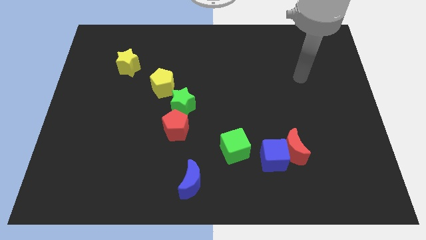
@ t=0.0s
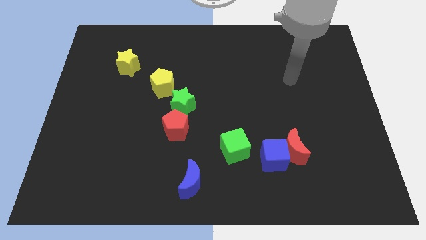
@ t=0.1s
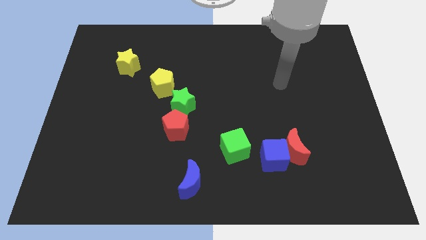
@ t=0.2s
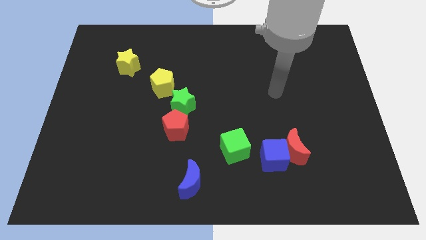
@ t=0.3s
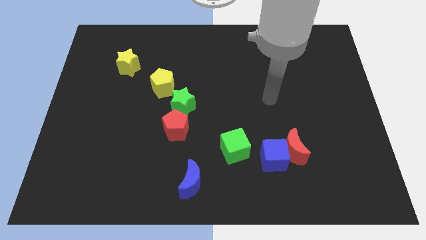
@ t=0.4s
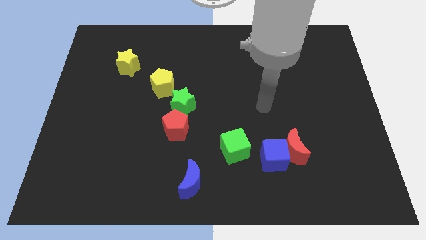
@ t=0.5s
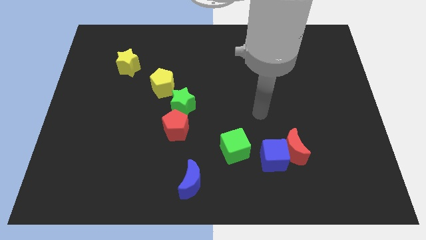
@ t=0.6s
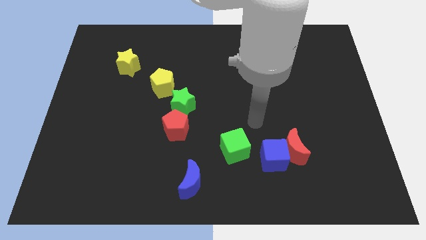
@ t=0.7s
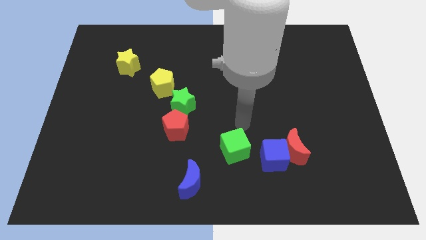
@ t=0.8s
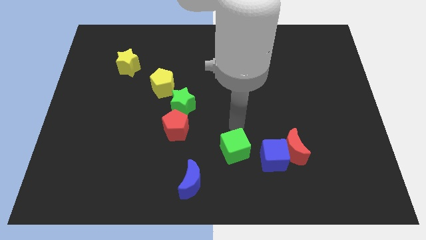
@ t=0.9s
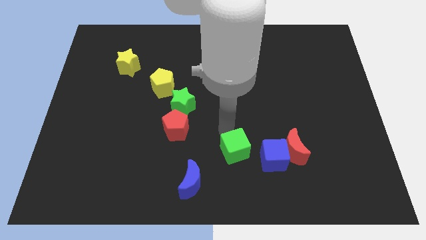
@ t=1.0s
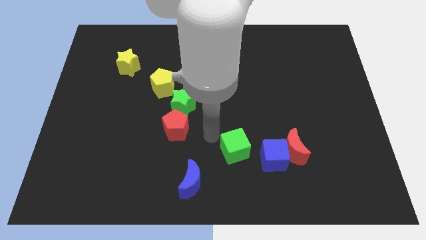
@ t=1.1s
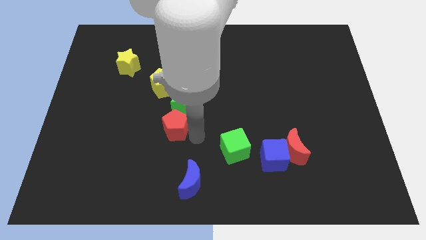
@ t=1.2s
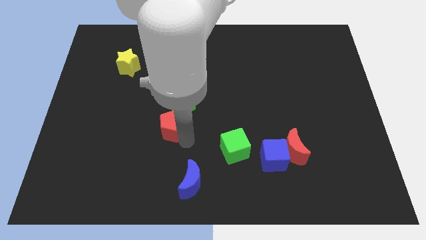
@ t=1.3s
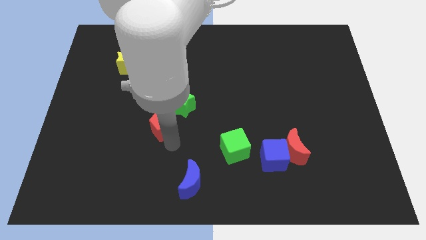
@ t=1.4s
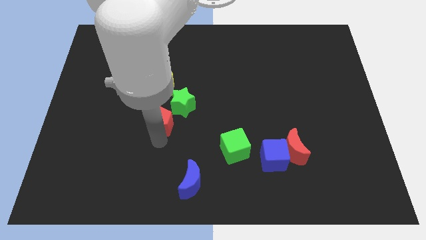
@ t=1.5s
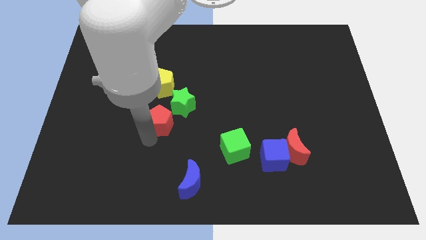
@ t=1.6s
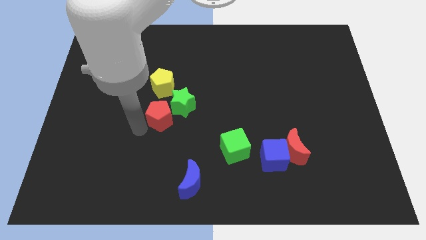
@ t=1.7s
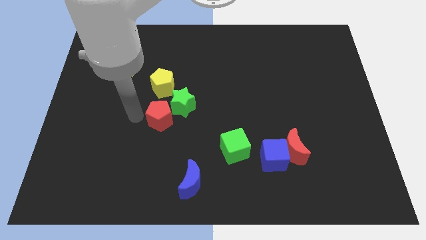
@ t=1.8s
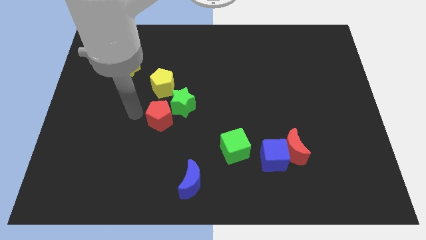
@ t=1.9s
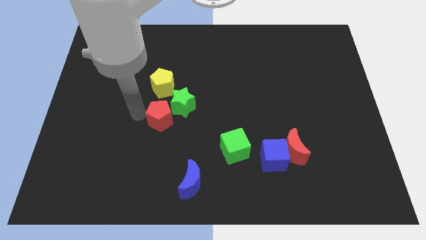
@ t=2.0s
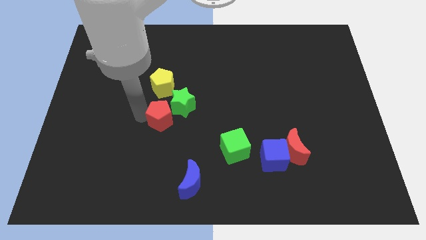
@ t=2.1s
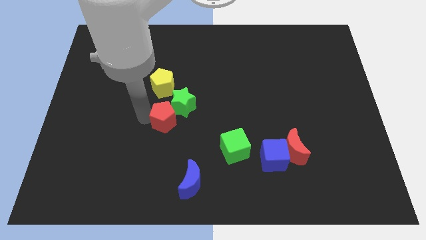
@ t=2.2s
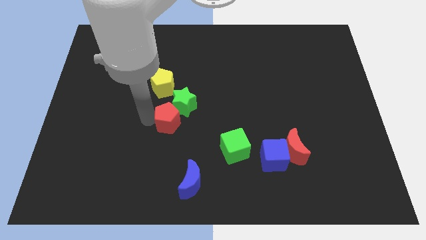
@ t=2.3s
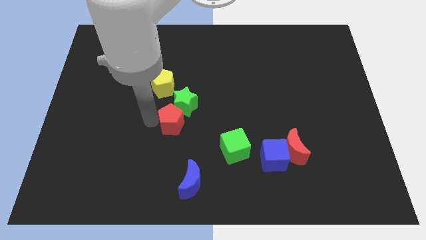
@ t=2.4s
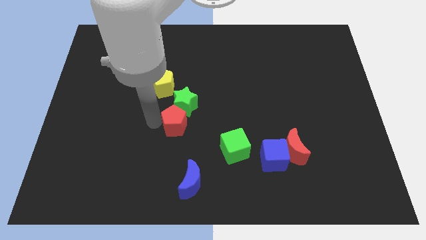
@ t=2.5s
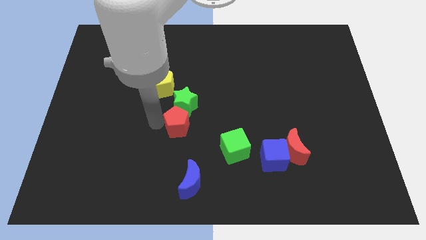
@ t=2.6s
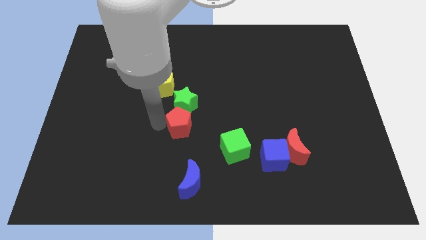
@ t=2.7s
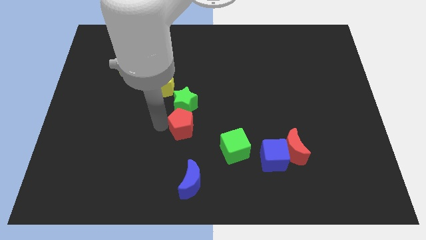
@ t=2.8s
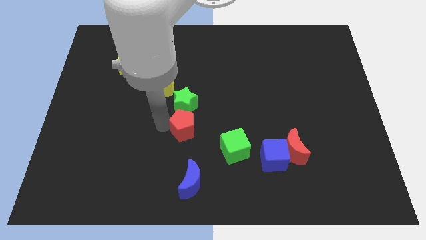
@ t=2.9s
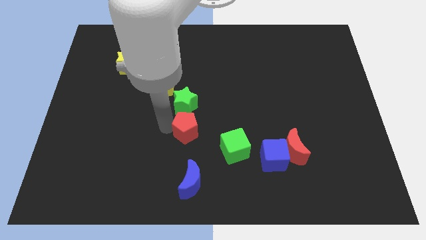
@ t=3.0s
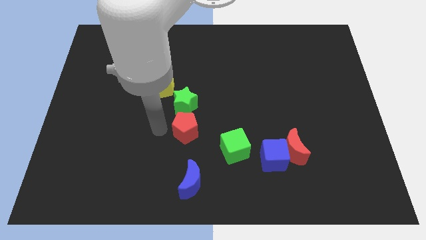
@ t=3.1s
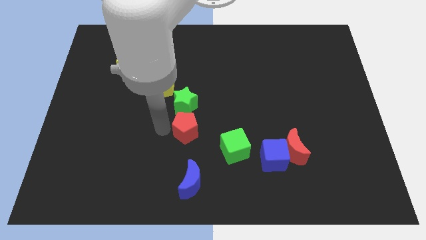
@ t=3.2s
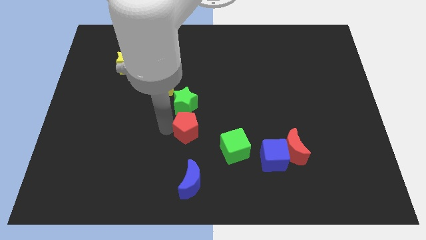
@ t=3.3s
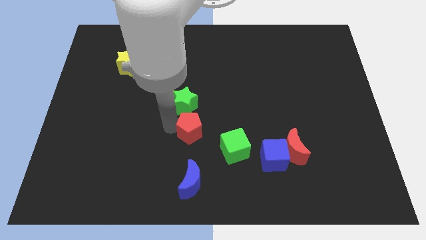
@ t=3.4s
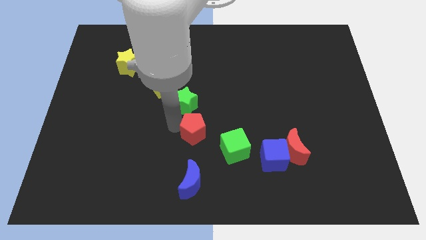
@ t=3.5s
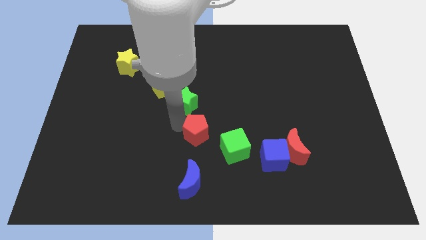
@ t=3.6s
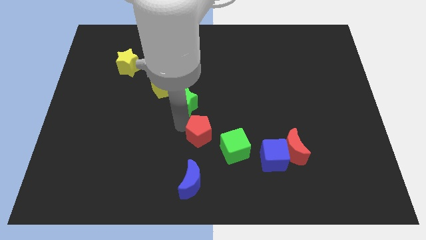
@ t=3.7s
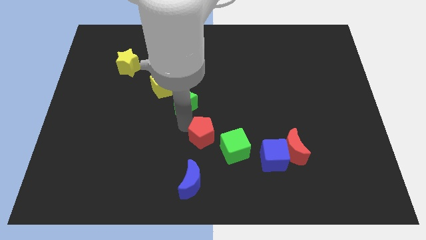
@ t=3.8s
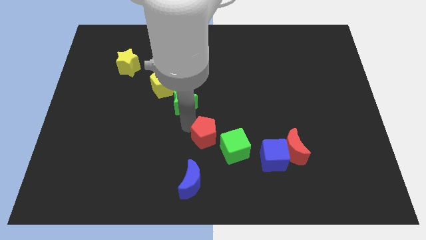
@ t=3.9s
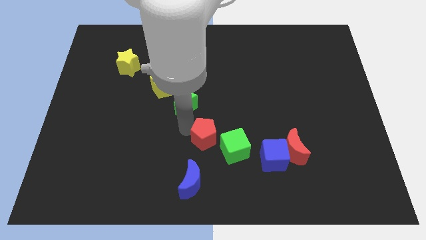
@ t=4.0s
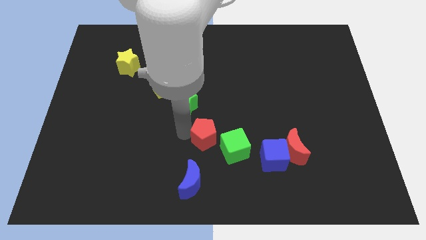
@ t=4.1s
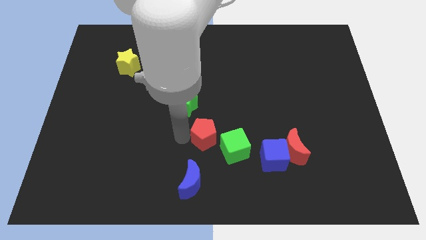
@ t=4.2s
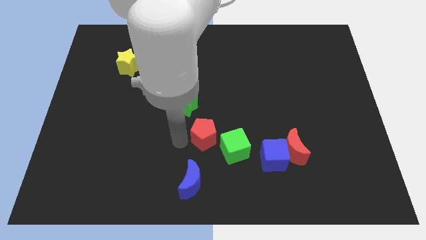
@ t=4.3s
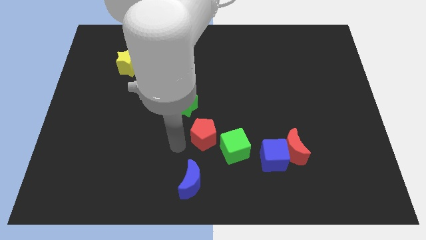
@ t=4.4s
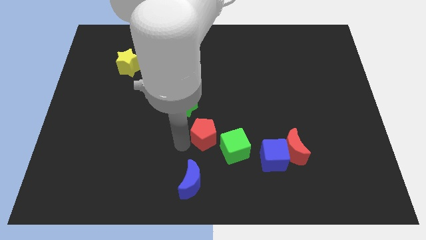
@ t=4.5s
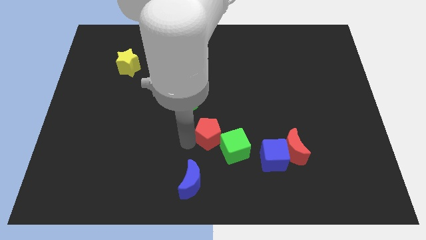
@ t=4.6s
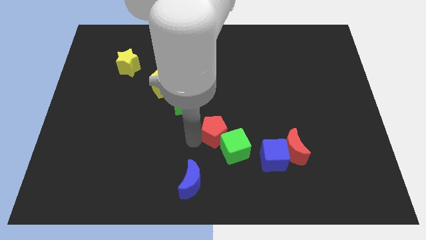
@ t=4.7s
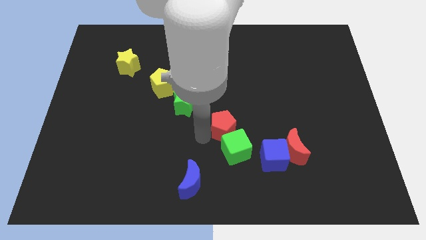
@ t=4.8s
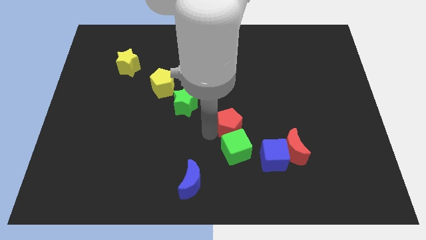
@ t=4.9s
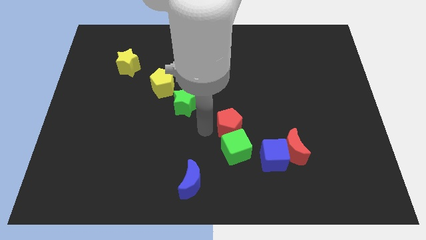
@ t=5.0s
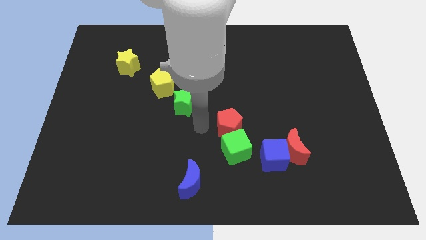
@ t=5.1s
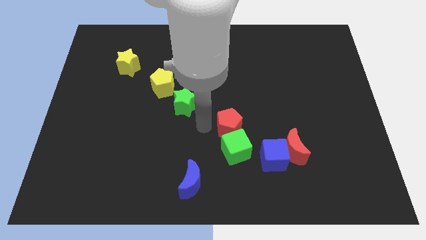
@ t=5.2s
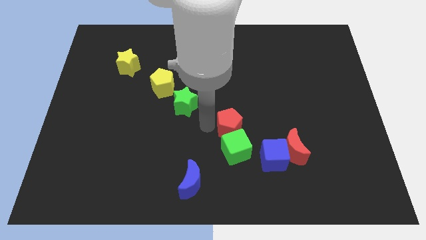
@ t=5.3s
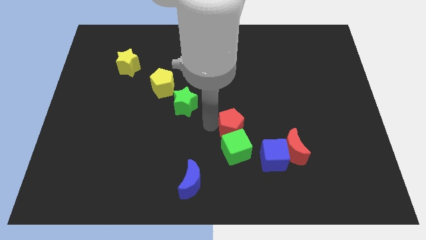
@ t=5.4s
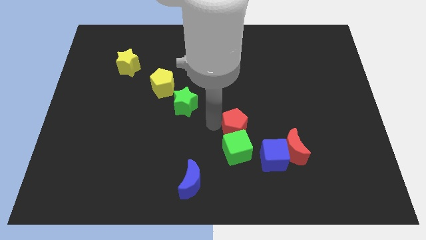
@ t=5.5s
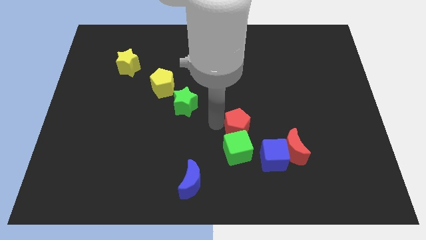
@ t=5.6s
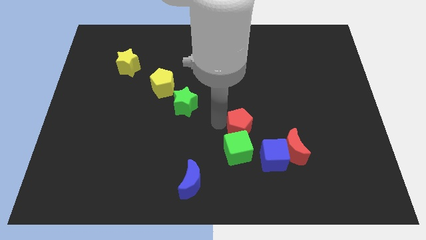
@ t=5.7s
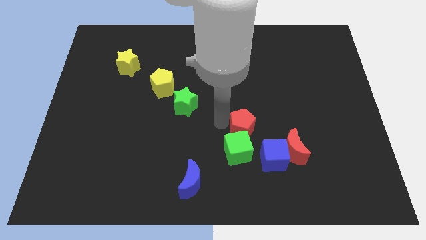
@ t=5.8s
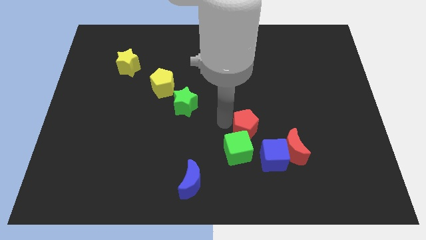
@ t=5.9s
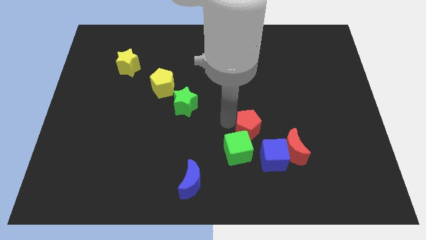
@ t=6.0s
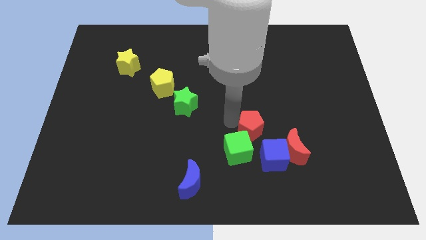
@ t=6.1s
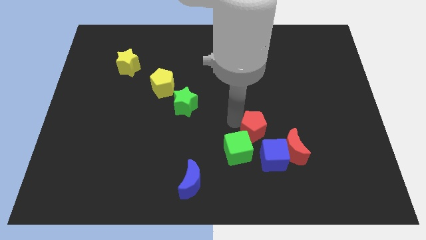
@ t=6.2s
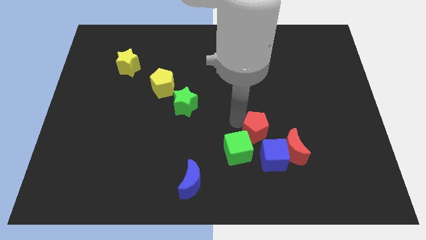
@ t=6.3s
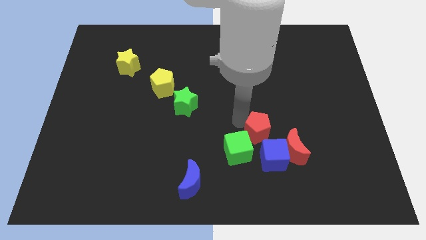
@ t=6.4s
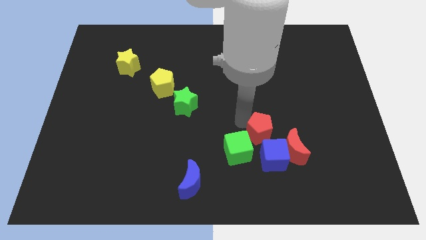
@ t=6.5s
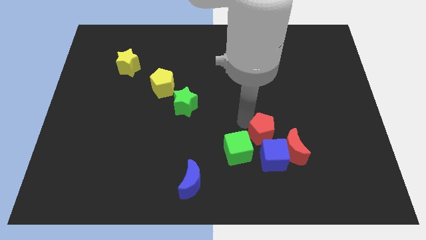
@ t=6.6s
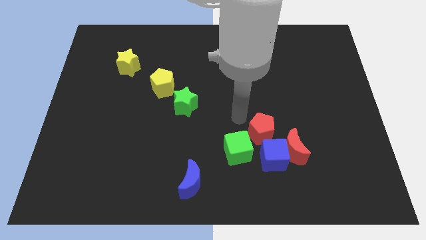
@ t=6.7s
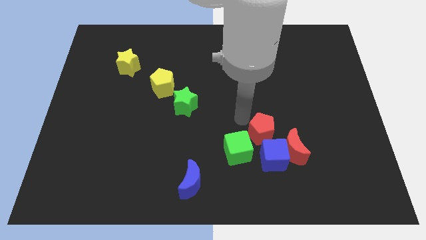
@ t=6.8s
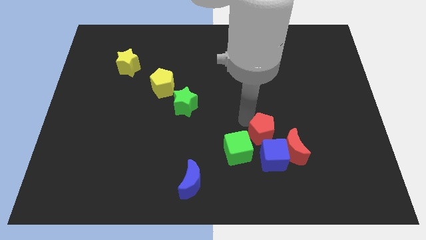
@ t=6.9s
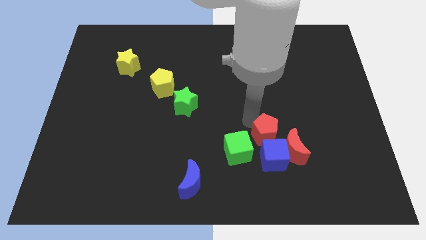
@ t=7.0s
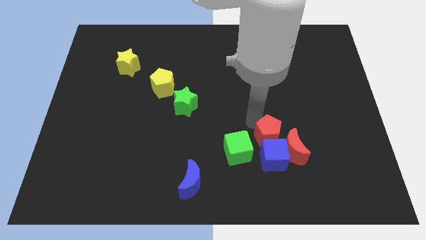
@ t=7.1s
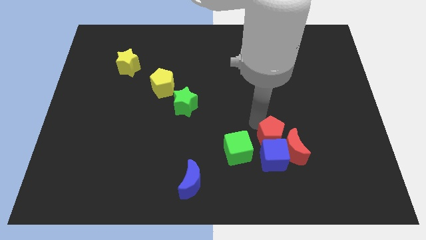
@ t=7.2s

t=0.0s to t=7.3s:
slide the red pentagon towards the red moon
